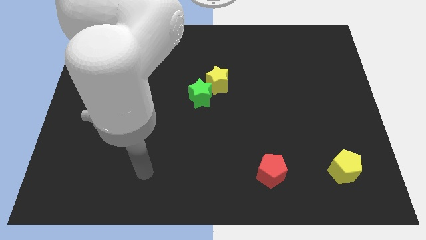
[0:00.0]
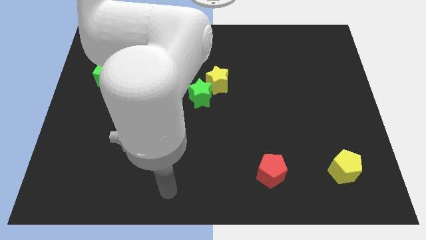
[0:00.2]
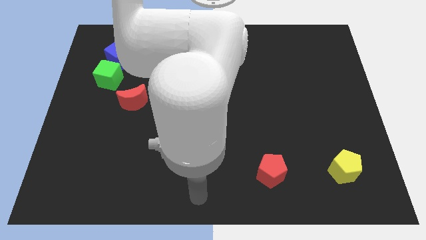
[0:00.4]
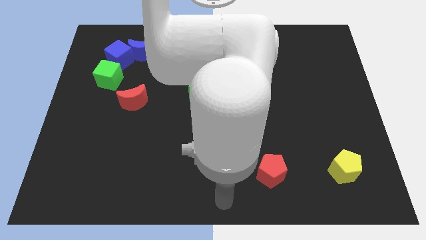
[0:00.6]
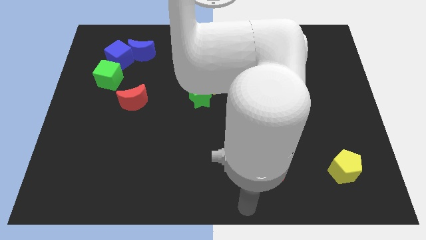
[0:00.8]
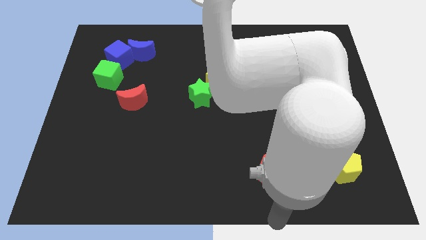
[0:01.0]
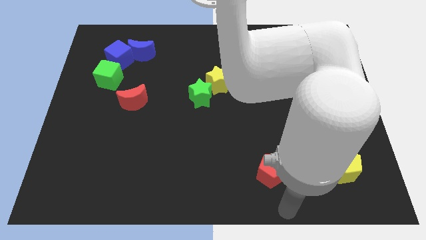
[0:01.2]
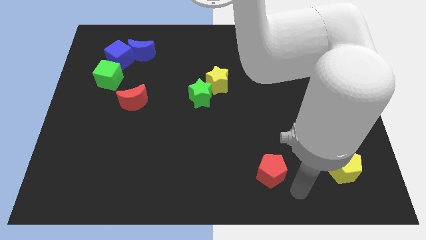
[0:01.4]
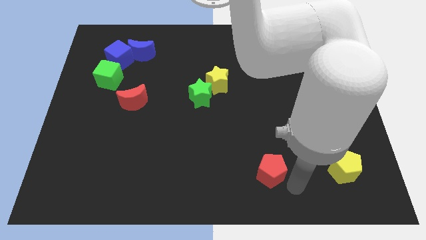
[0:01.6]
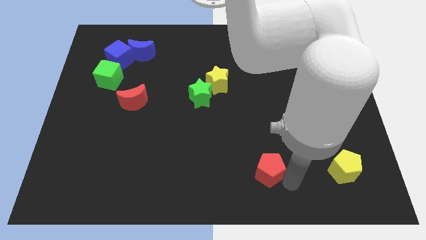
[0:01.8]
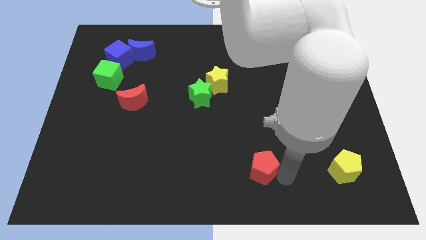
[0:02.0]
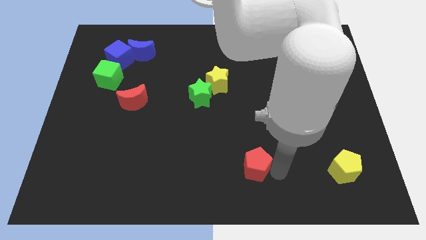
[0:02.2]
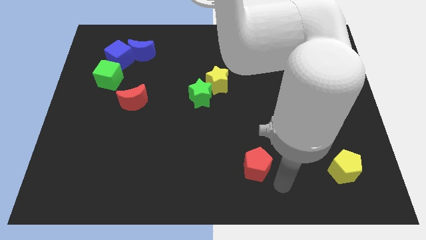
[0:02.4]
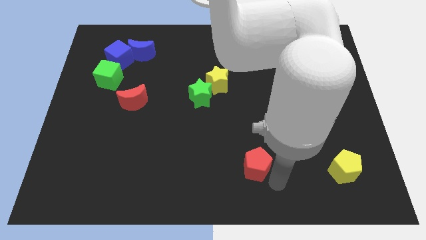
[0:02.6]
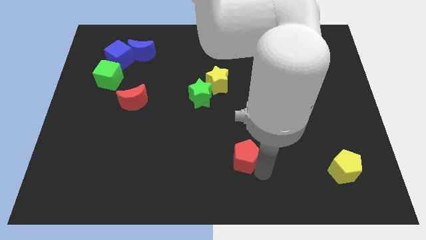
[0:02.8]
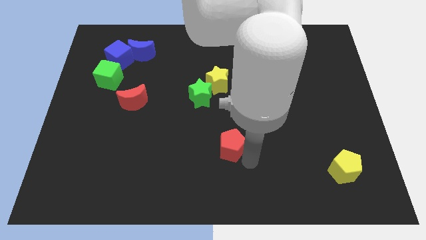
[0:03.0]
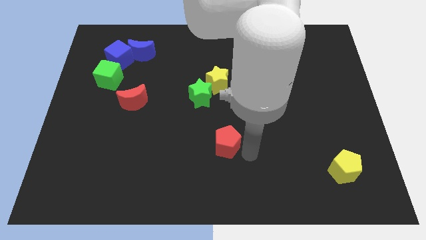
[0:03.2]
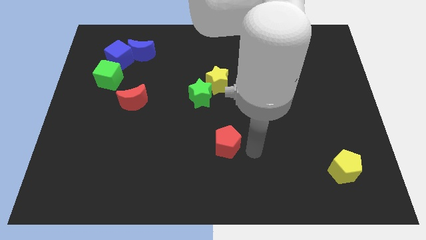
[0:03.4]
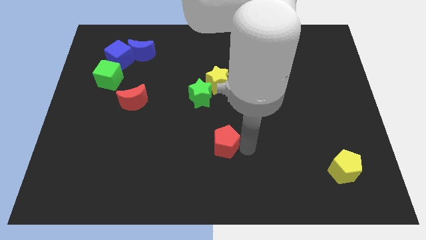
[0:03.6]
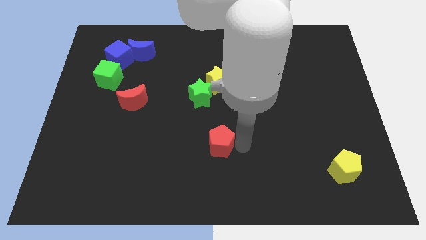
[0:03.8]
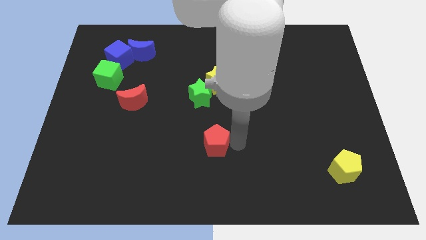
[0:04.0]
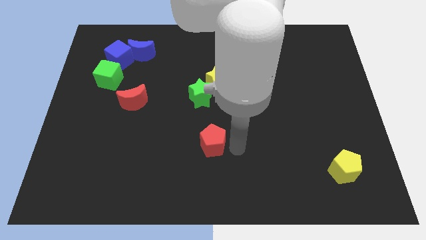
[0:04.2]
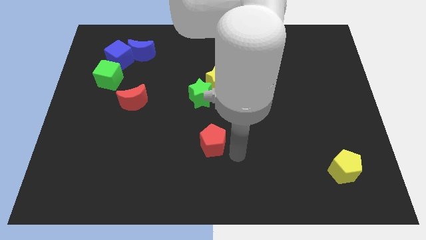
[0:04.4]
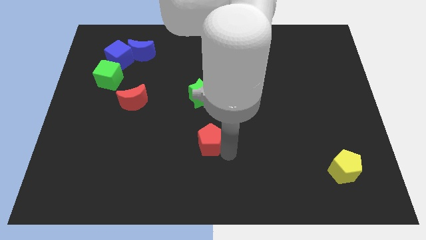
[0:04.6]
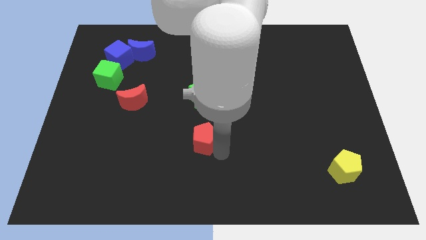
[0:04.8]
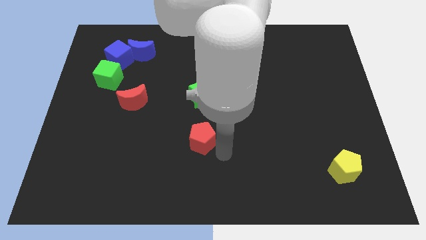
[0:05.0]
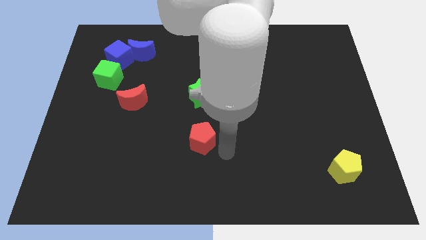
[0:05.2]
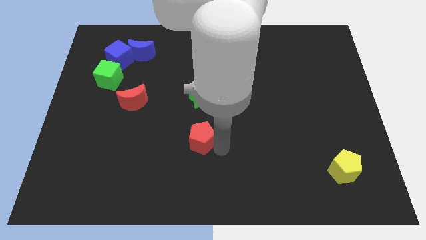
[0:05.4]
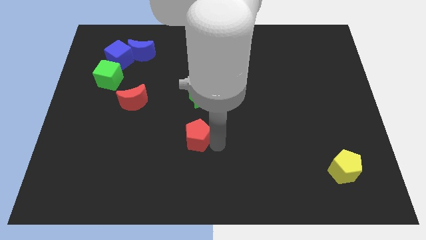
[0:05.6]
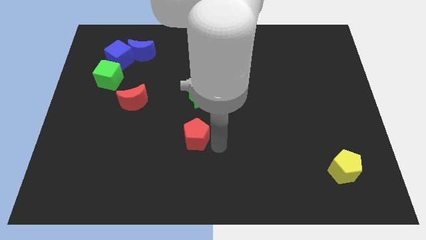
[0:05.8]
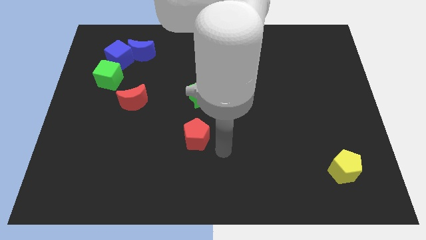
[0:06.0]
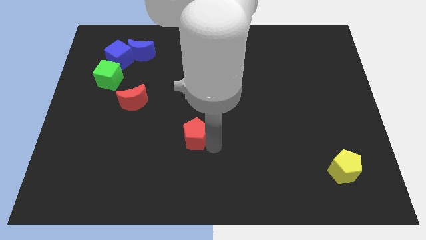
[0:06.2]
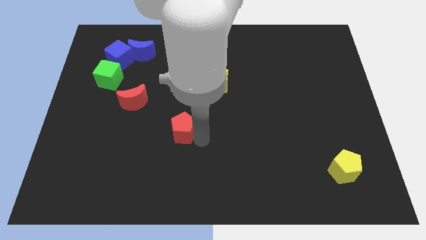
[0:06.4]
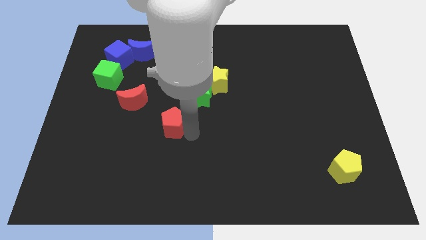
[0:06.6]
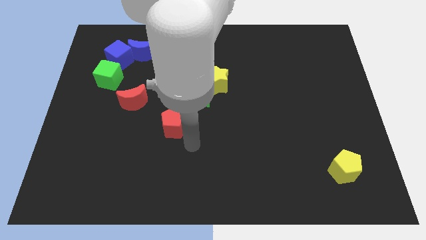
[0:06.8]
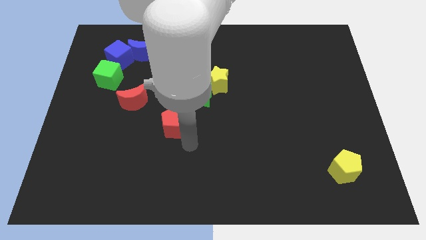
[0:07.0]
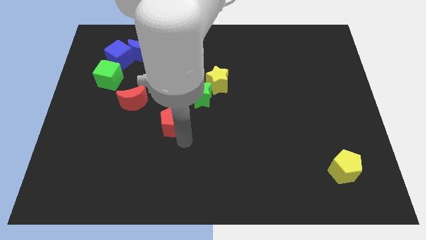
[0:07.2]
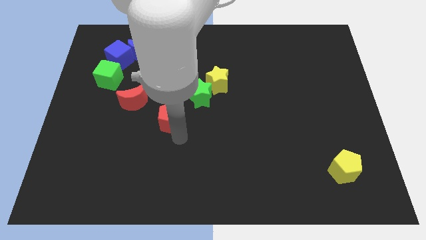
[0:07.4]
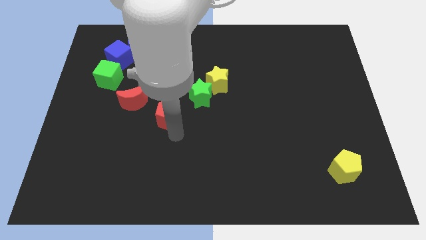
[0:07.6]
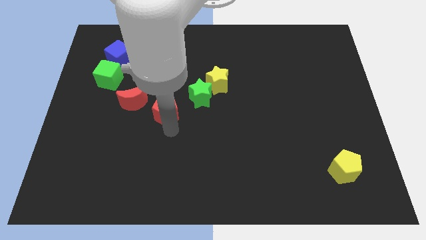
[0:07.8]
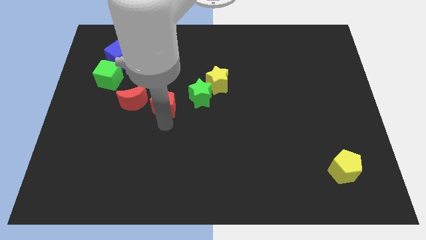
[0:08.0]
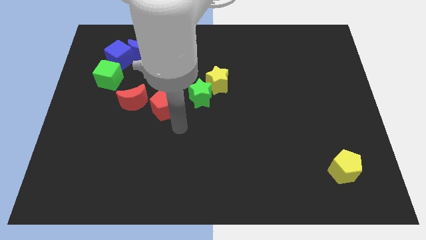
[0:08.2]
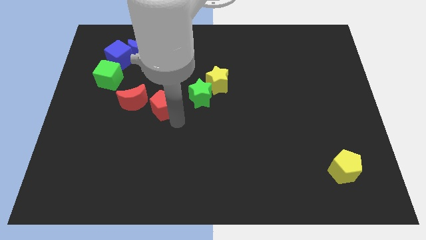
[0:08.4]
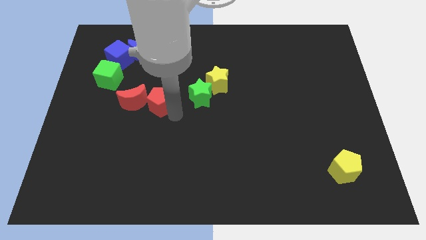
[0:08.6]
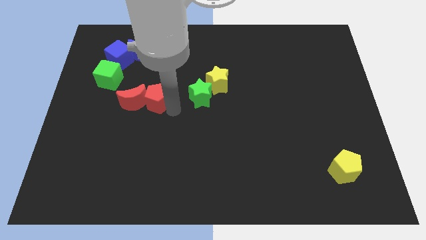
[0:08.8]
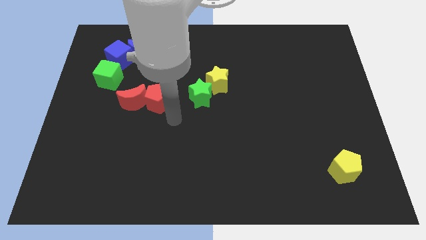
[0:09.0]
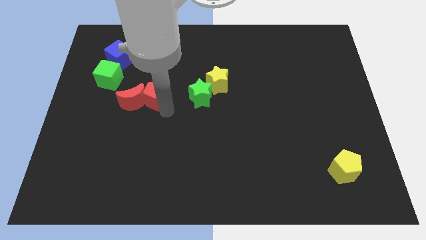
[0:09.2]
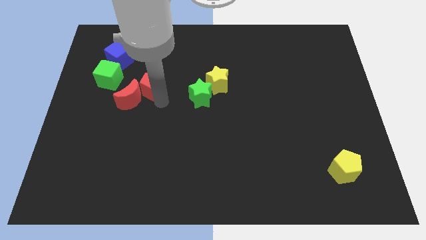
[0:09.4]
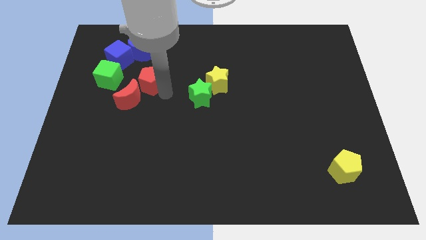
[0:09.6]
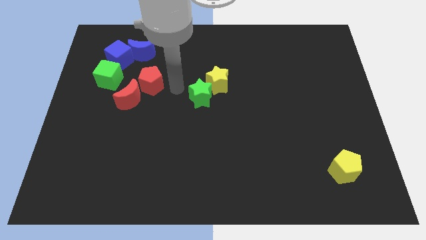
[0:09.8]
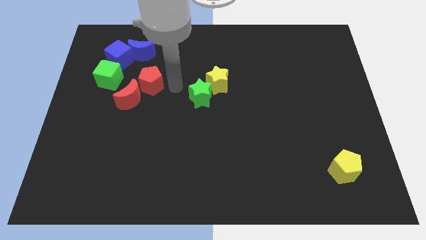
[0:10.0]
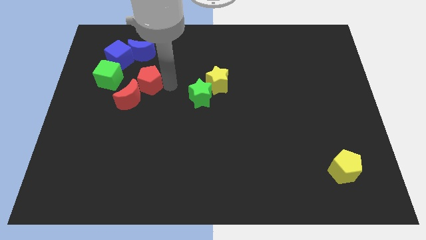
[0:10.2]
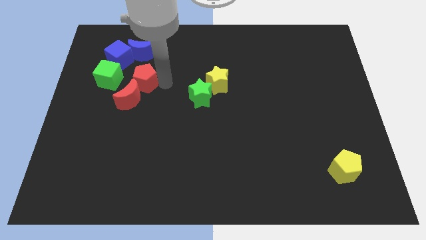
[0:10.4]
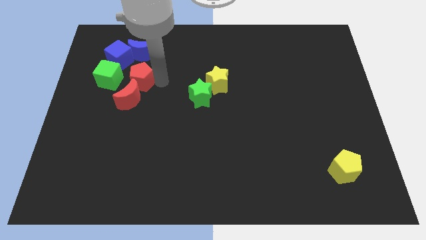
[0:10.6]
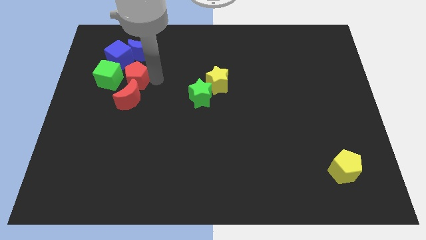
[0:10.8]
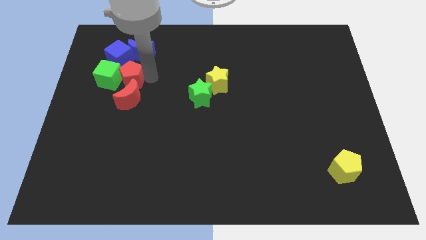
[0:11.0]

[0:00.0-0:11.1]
push the red pentagon towards the green cube

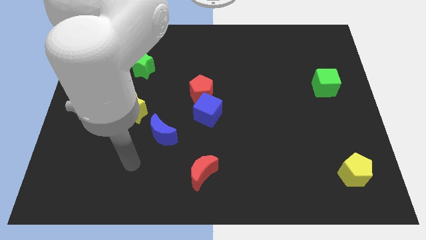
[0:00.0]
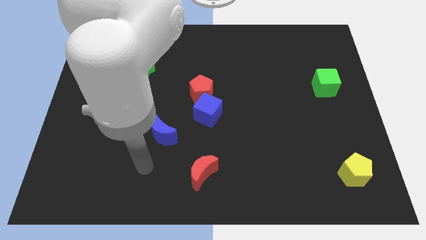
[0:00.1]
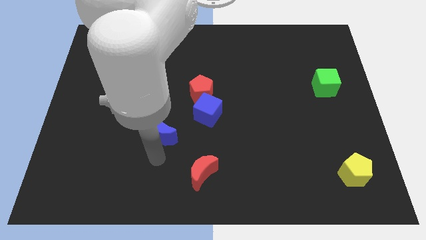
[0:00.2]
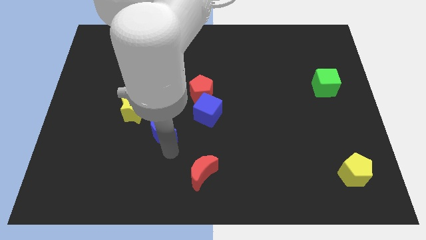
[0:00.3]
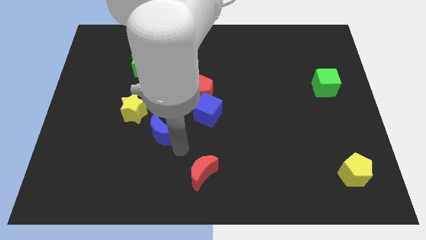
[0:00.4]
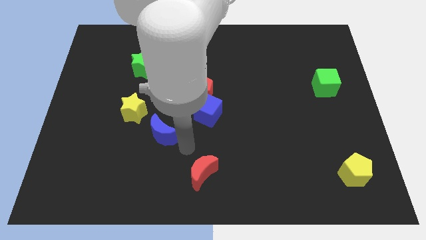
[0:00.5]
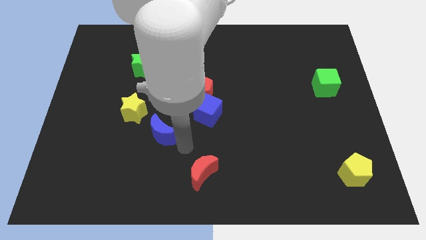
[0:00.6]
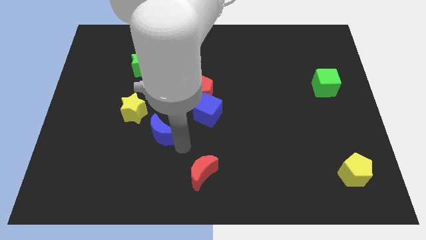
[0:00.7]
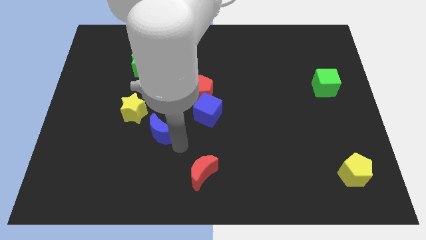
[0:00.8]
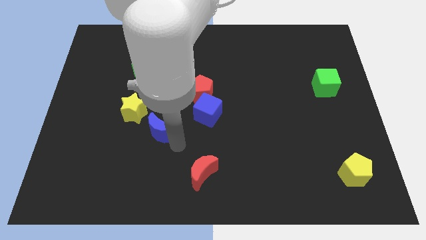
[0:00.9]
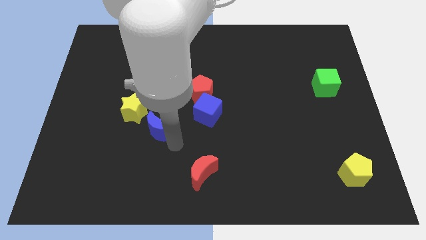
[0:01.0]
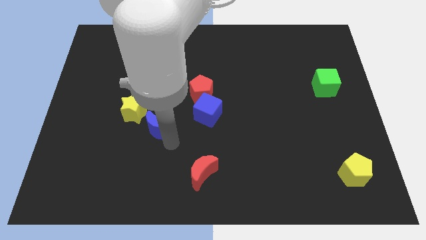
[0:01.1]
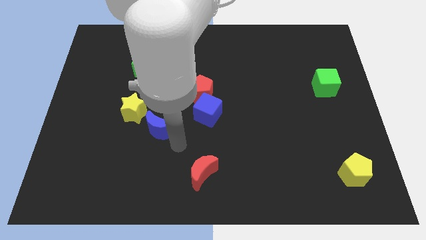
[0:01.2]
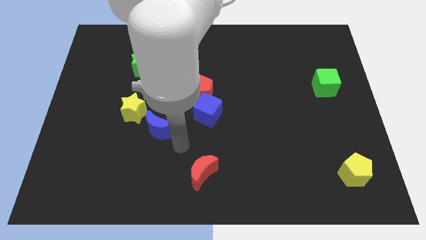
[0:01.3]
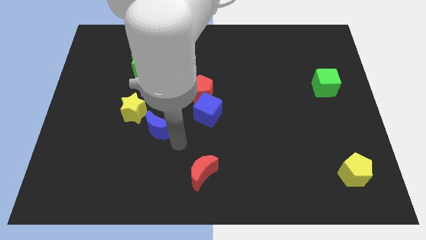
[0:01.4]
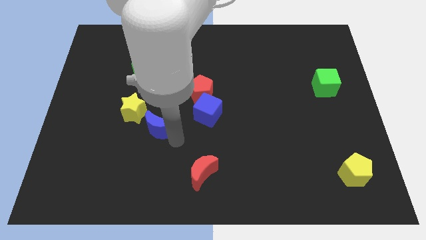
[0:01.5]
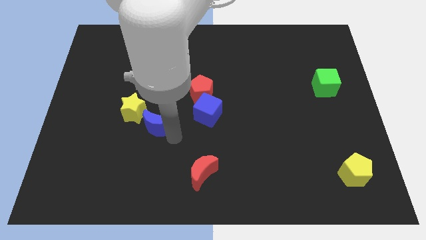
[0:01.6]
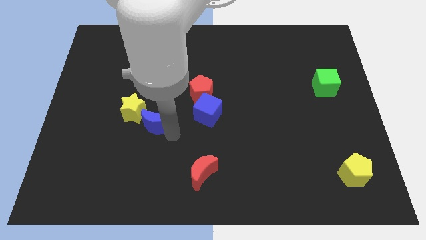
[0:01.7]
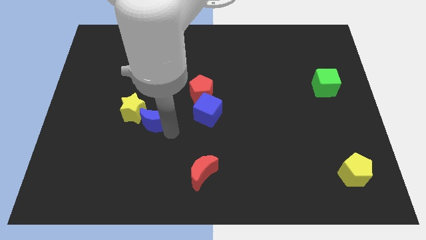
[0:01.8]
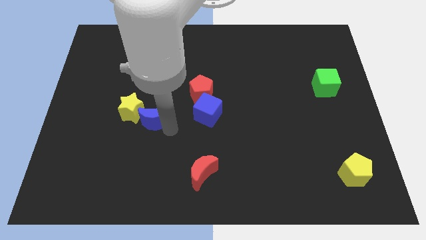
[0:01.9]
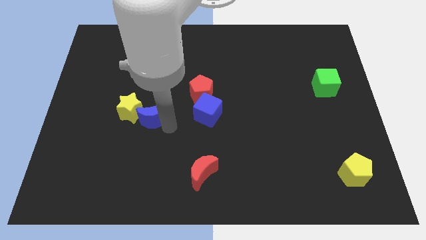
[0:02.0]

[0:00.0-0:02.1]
put the blue moon next to the yellow star
